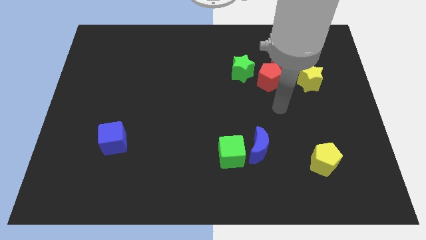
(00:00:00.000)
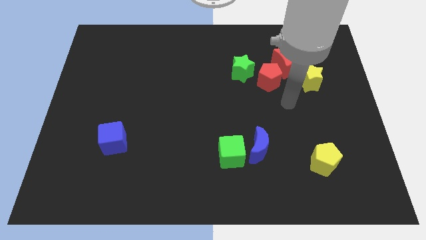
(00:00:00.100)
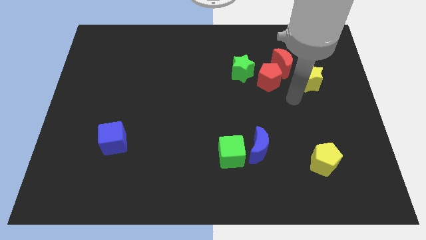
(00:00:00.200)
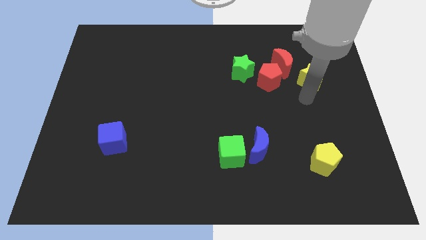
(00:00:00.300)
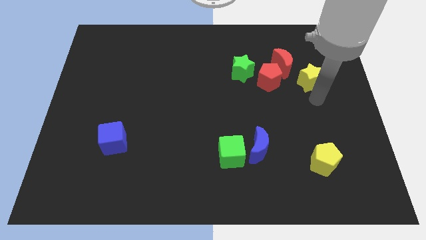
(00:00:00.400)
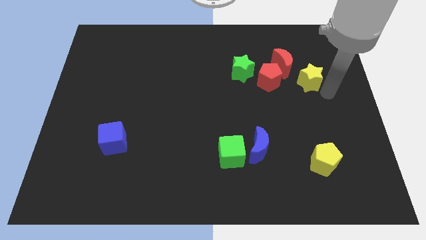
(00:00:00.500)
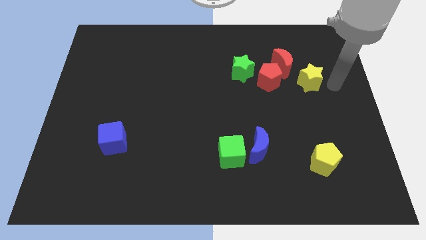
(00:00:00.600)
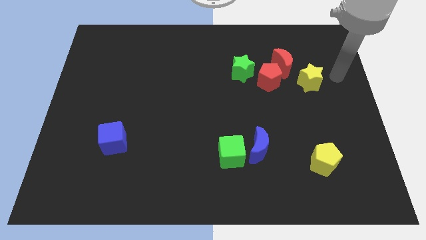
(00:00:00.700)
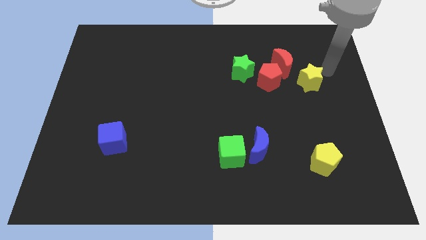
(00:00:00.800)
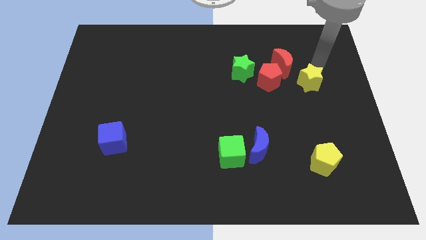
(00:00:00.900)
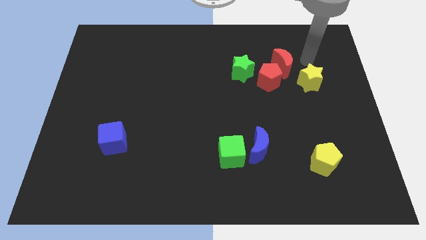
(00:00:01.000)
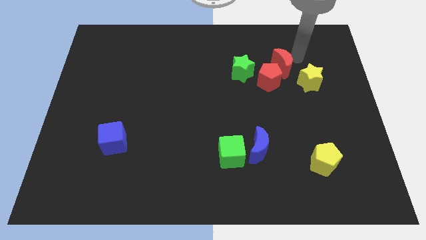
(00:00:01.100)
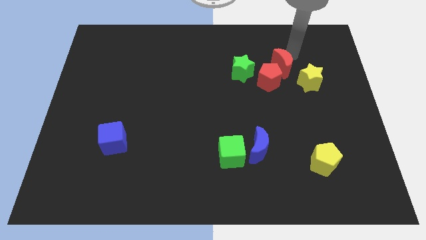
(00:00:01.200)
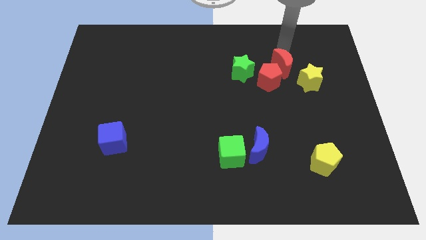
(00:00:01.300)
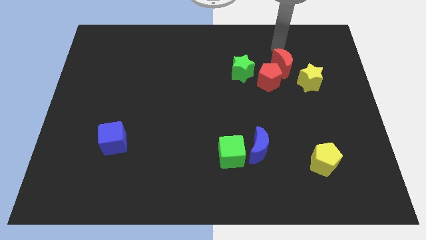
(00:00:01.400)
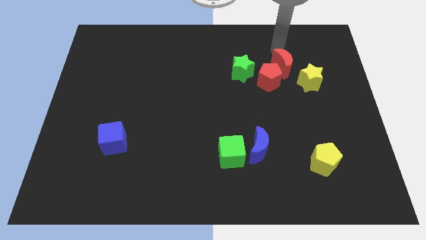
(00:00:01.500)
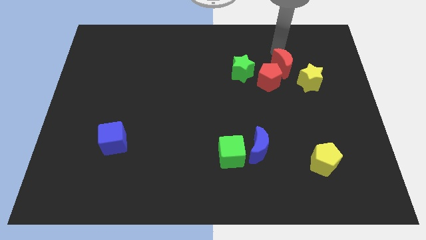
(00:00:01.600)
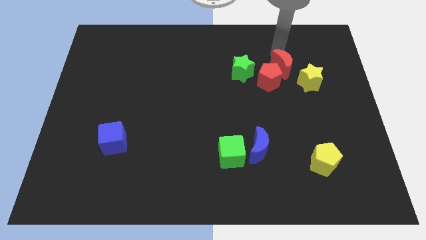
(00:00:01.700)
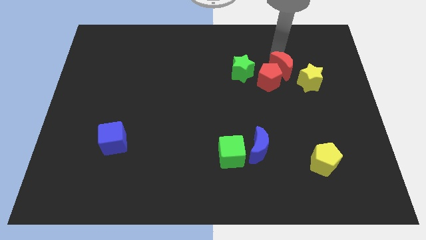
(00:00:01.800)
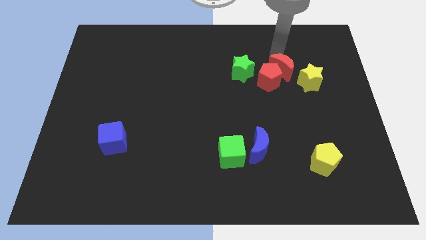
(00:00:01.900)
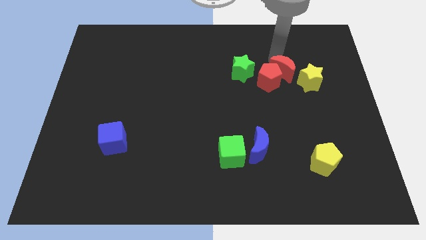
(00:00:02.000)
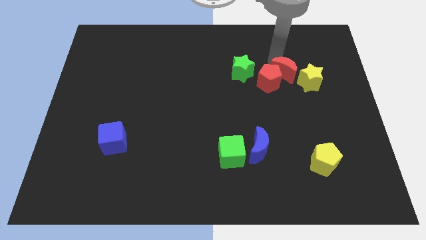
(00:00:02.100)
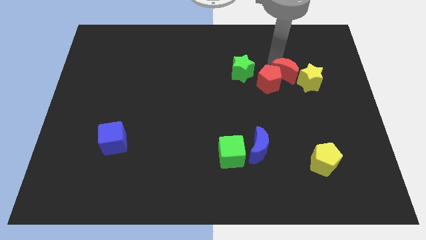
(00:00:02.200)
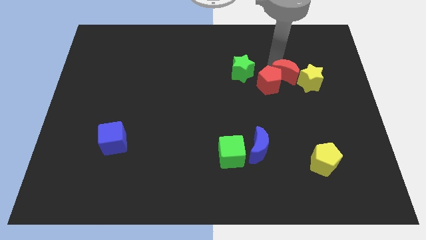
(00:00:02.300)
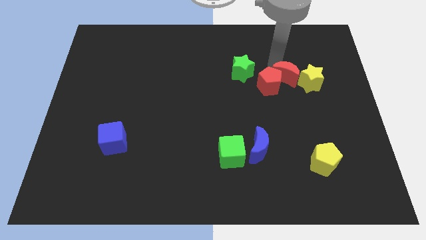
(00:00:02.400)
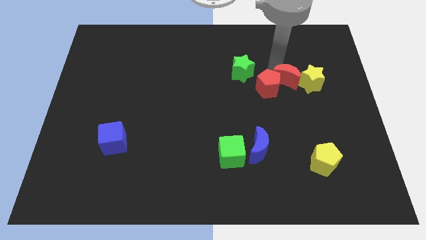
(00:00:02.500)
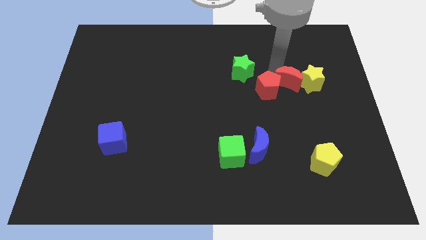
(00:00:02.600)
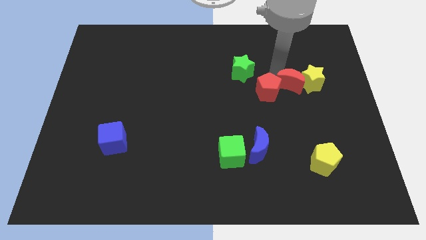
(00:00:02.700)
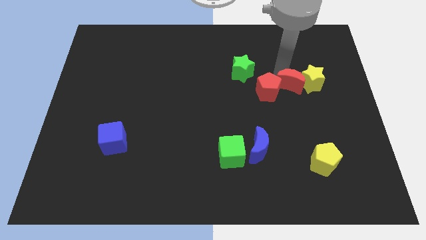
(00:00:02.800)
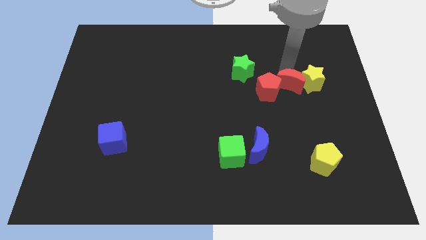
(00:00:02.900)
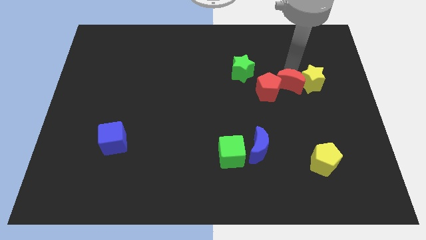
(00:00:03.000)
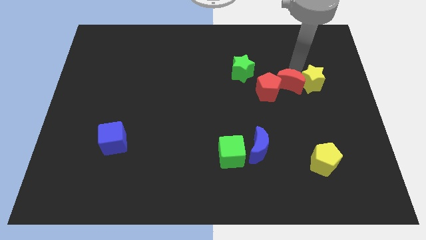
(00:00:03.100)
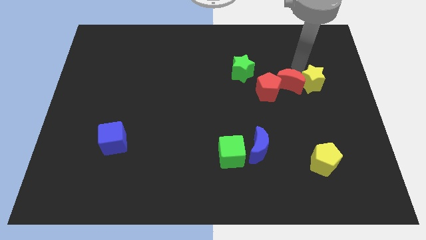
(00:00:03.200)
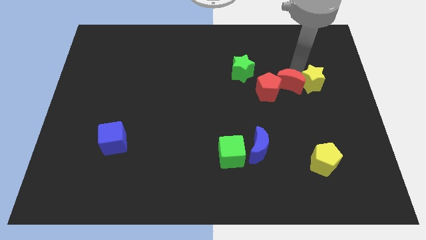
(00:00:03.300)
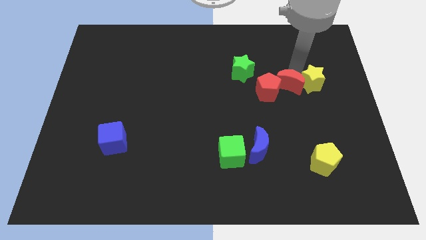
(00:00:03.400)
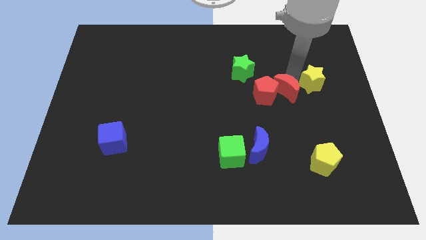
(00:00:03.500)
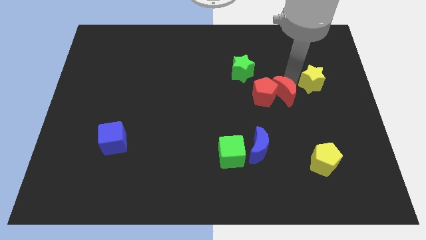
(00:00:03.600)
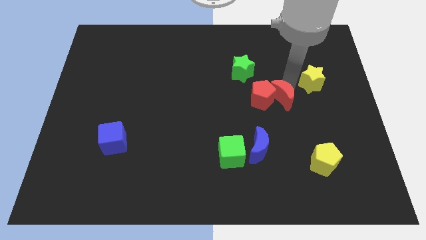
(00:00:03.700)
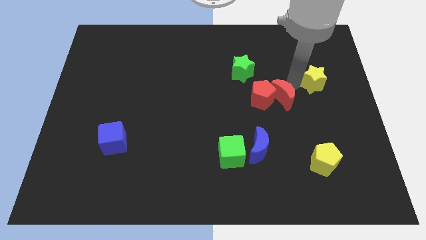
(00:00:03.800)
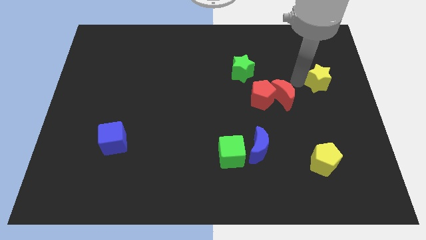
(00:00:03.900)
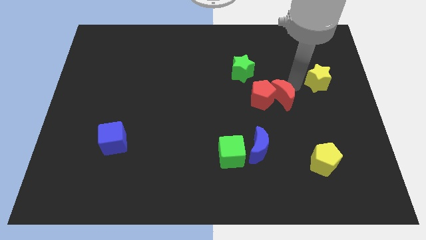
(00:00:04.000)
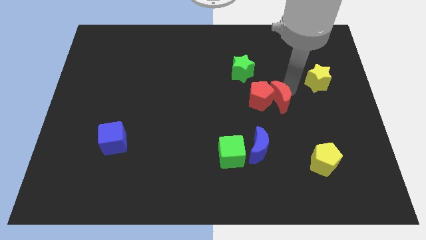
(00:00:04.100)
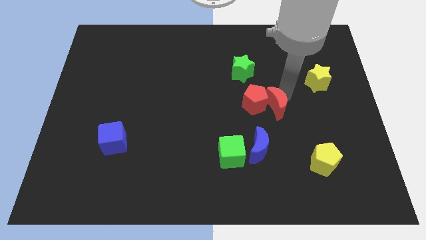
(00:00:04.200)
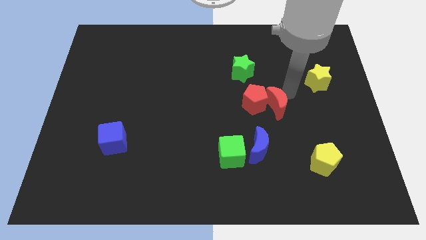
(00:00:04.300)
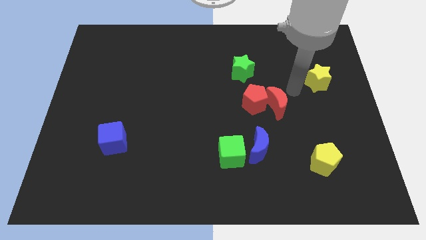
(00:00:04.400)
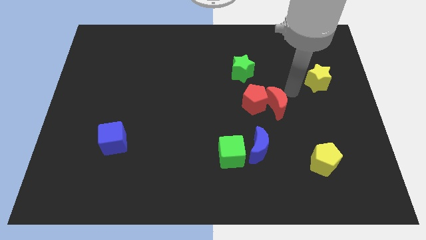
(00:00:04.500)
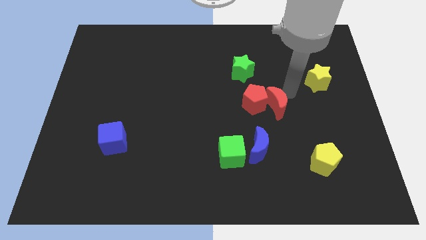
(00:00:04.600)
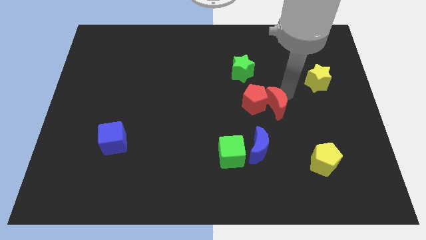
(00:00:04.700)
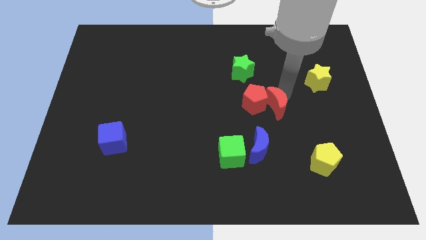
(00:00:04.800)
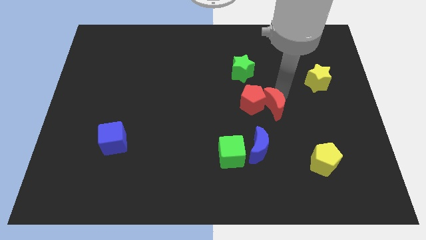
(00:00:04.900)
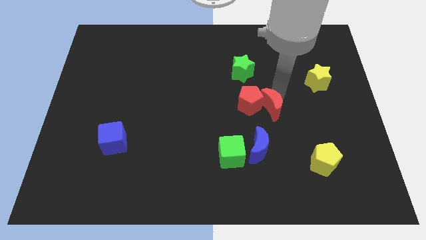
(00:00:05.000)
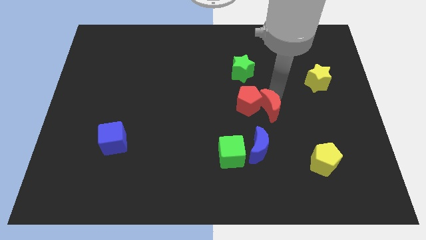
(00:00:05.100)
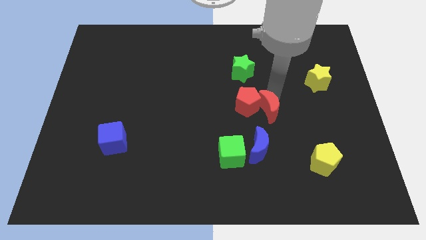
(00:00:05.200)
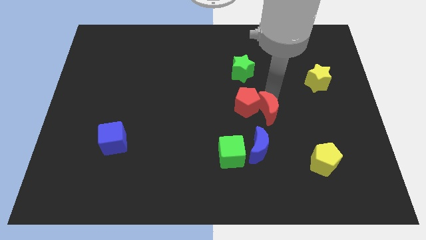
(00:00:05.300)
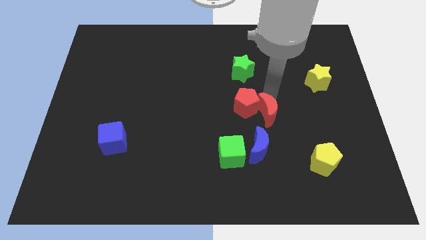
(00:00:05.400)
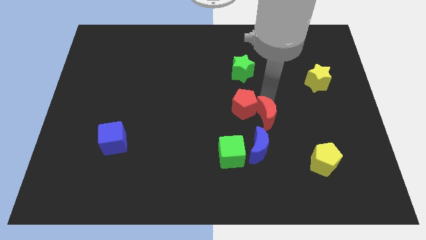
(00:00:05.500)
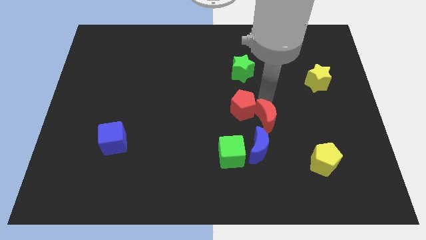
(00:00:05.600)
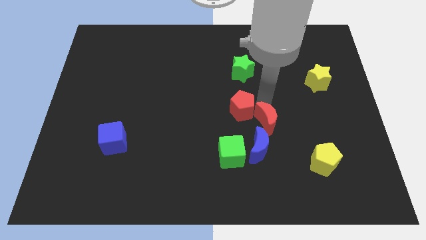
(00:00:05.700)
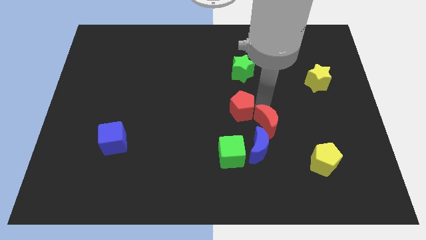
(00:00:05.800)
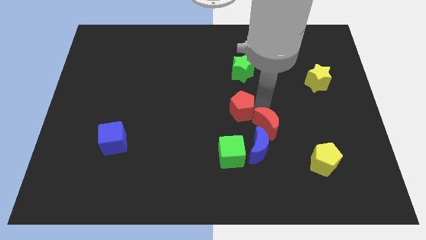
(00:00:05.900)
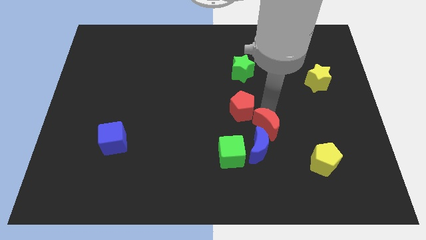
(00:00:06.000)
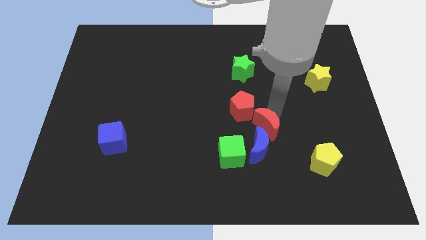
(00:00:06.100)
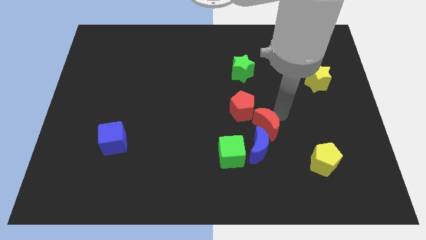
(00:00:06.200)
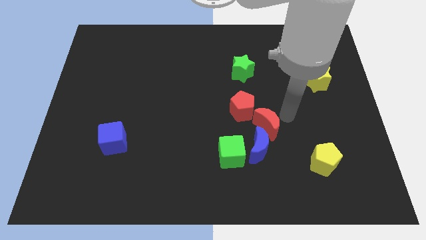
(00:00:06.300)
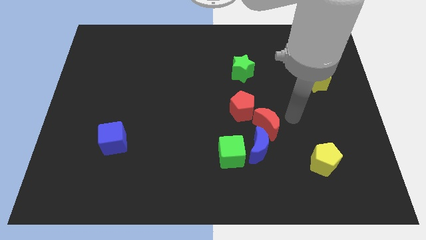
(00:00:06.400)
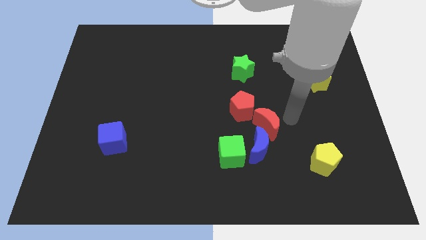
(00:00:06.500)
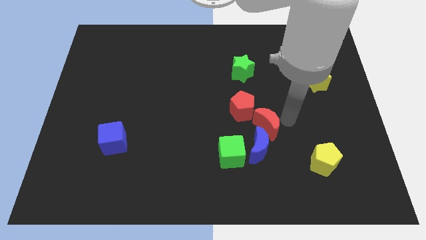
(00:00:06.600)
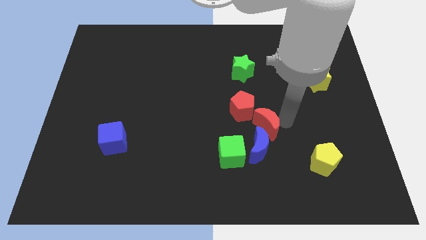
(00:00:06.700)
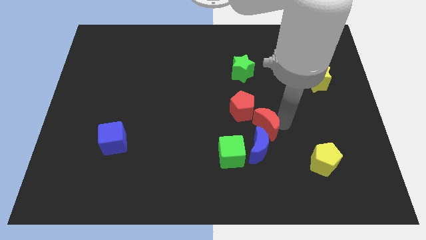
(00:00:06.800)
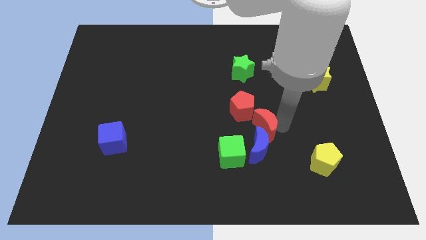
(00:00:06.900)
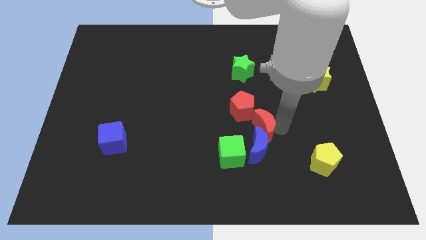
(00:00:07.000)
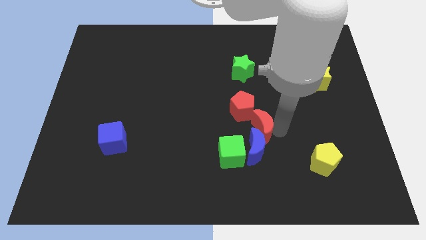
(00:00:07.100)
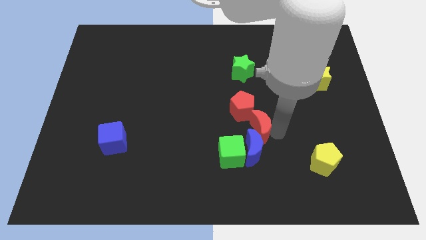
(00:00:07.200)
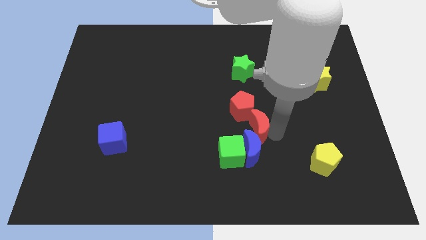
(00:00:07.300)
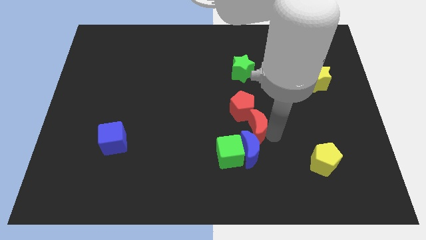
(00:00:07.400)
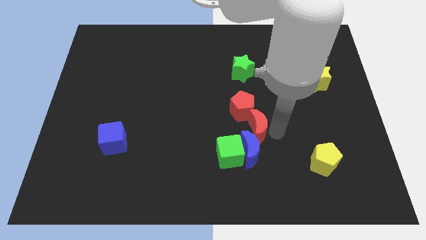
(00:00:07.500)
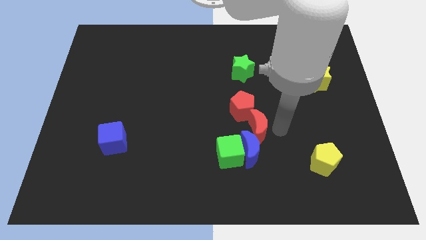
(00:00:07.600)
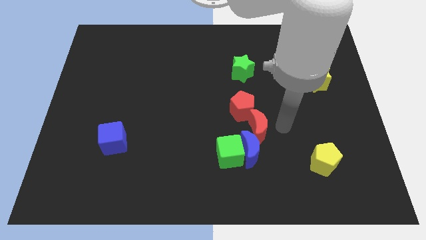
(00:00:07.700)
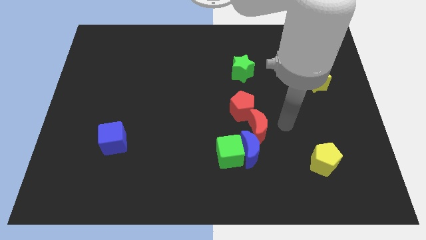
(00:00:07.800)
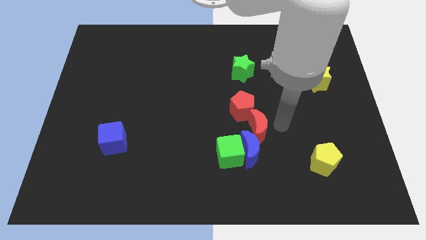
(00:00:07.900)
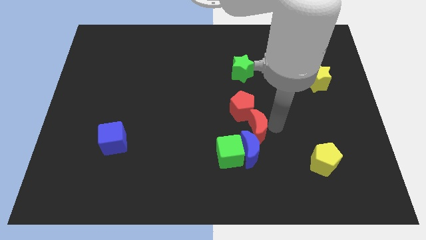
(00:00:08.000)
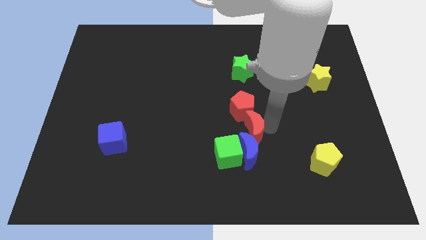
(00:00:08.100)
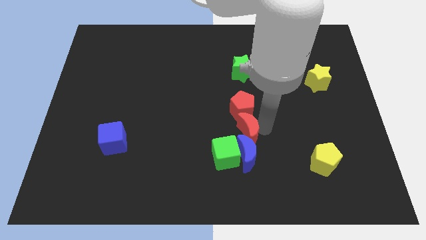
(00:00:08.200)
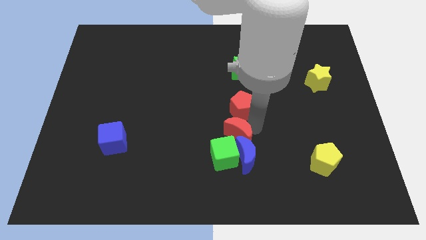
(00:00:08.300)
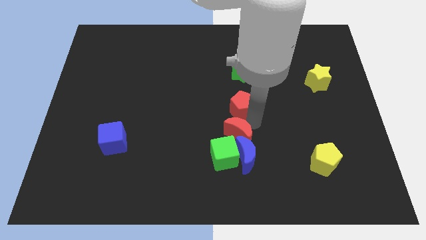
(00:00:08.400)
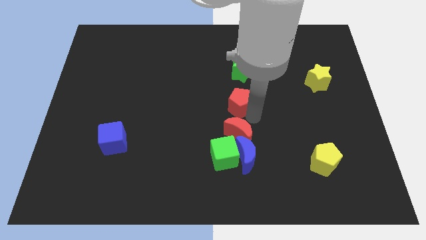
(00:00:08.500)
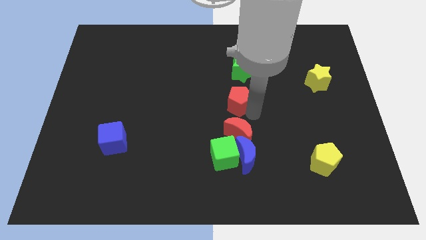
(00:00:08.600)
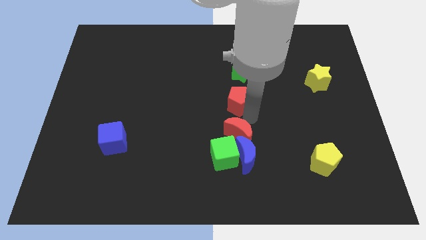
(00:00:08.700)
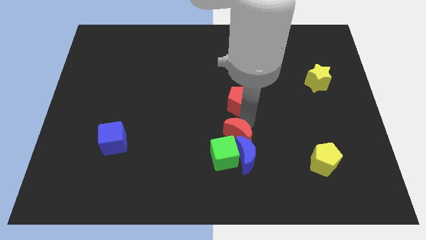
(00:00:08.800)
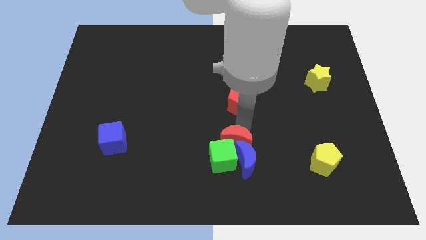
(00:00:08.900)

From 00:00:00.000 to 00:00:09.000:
push the red moon close to the green cube
